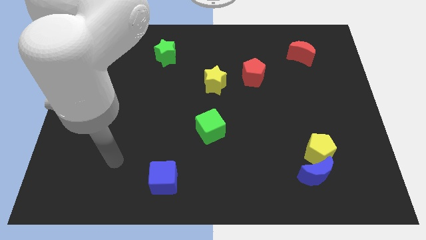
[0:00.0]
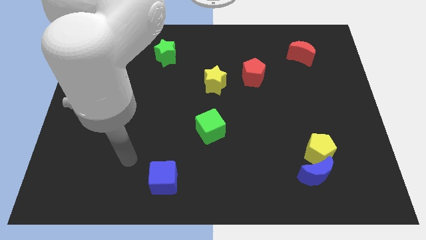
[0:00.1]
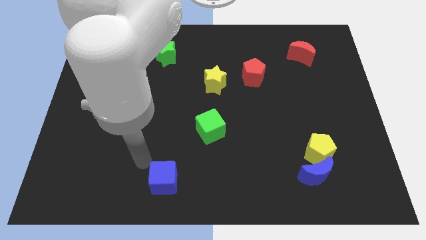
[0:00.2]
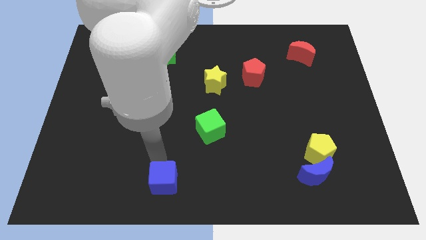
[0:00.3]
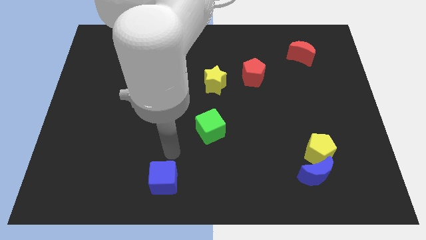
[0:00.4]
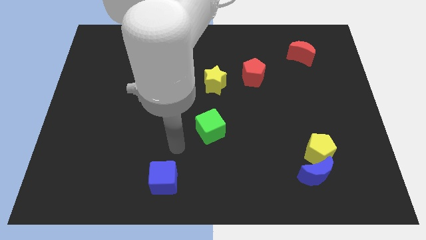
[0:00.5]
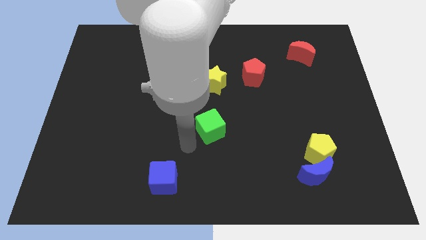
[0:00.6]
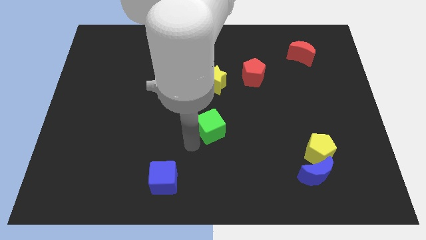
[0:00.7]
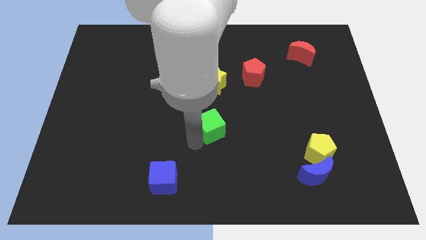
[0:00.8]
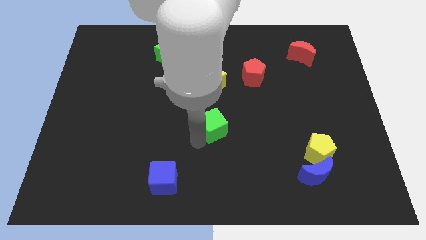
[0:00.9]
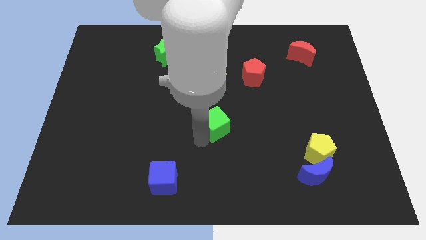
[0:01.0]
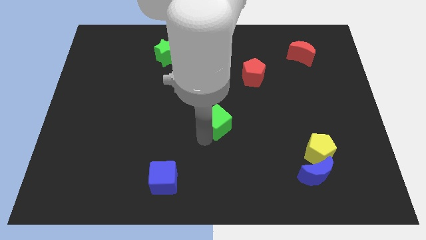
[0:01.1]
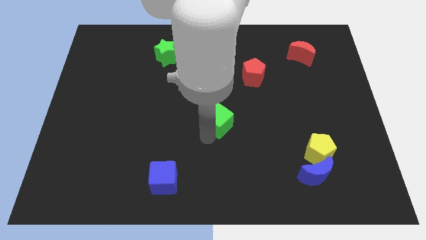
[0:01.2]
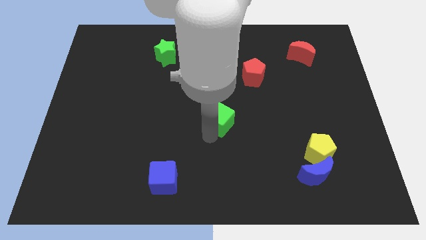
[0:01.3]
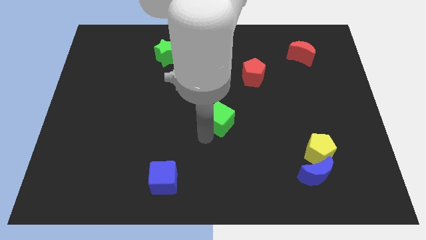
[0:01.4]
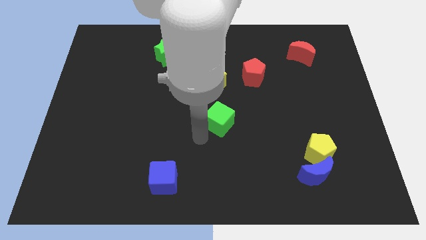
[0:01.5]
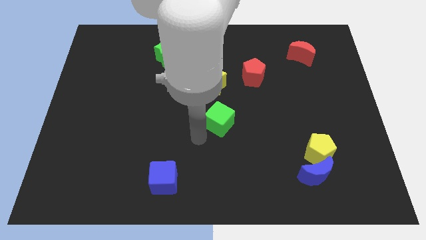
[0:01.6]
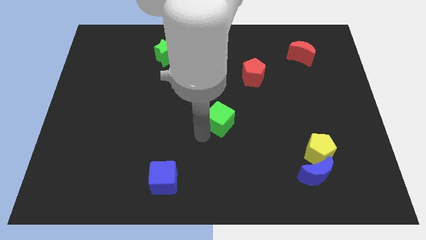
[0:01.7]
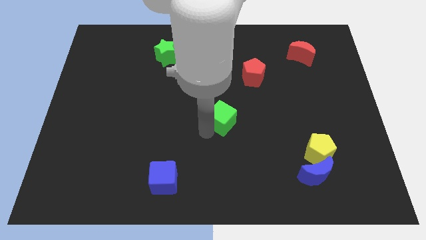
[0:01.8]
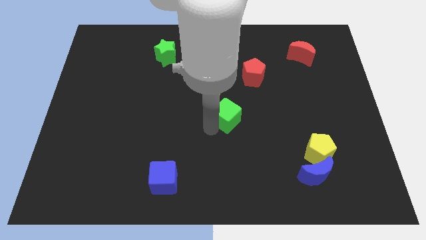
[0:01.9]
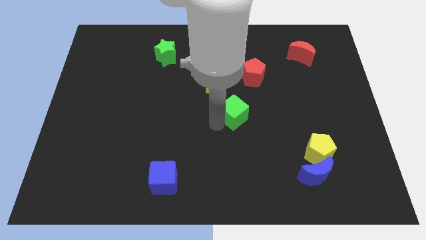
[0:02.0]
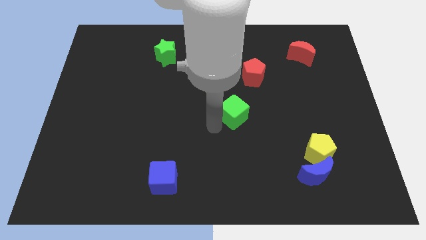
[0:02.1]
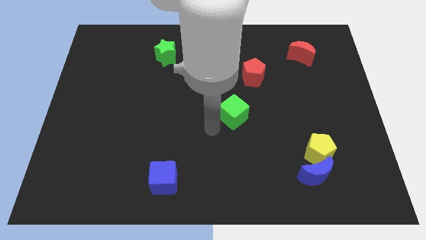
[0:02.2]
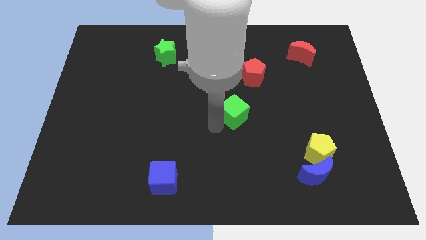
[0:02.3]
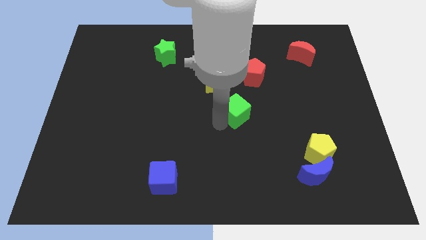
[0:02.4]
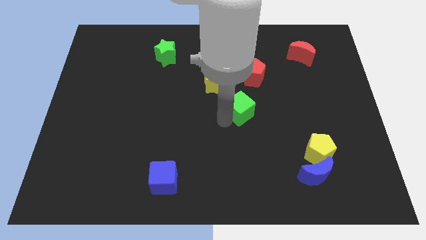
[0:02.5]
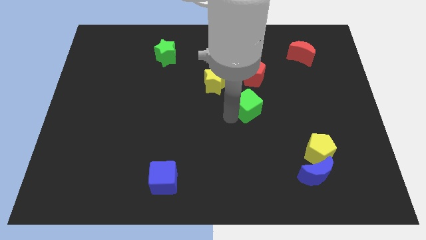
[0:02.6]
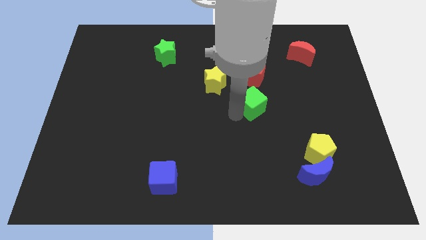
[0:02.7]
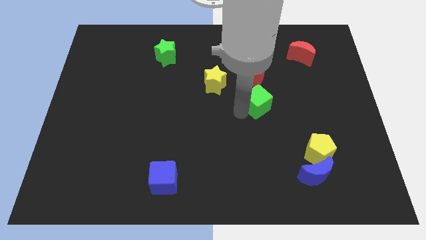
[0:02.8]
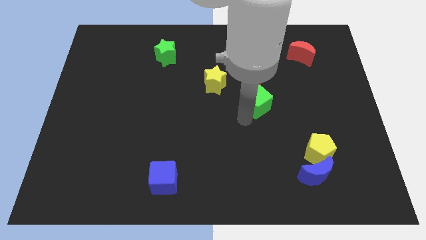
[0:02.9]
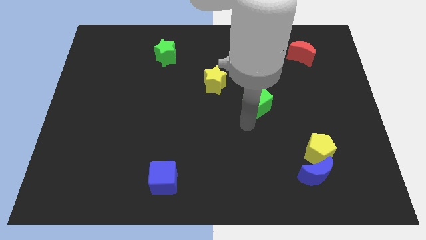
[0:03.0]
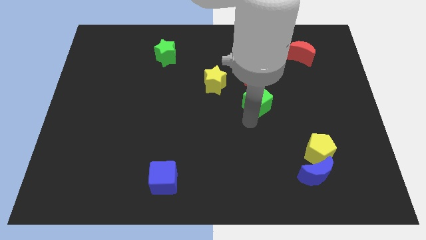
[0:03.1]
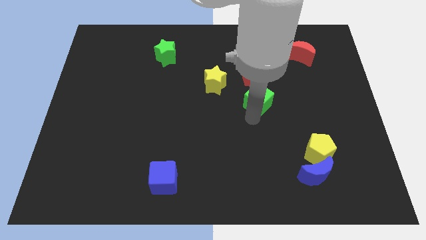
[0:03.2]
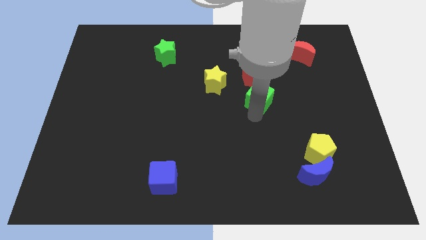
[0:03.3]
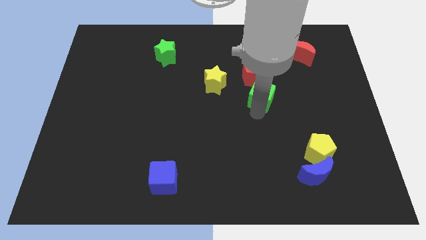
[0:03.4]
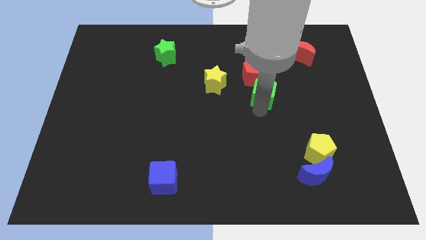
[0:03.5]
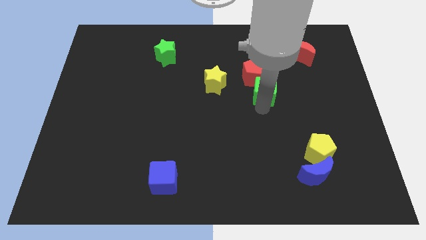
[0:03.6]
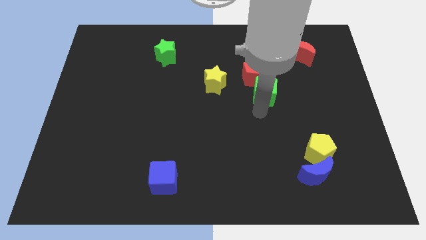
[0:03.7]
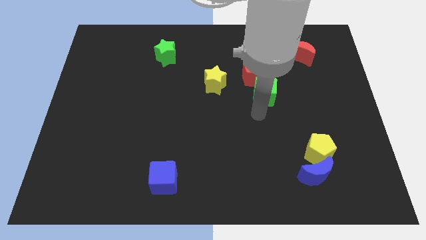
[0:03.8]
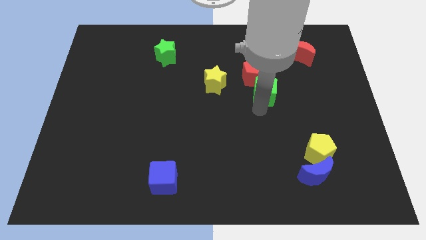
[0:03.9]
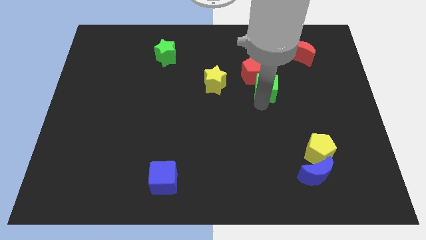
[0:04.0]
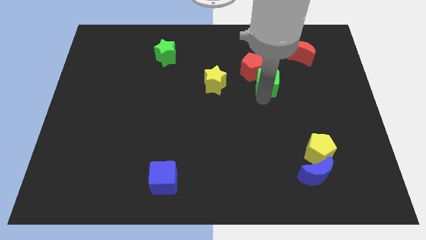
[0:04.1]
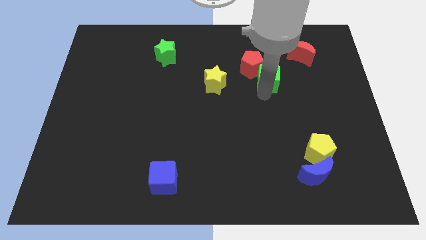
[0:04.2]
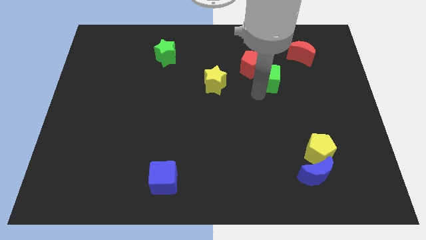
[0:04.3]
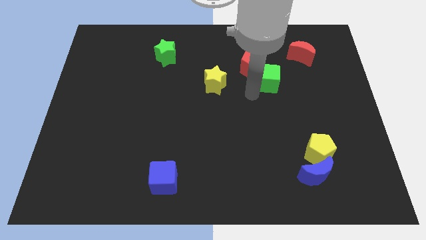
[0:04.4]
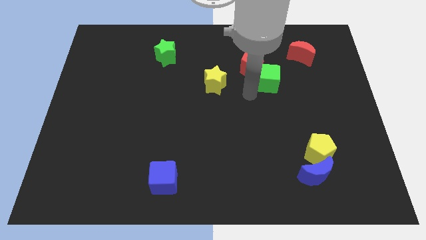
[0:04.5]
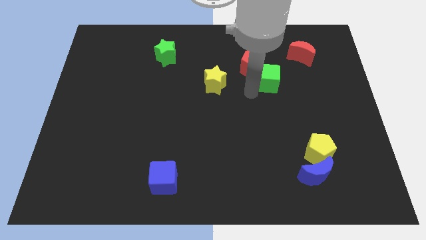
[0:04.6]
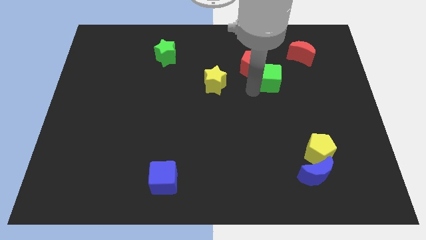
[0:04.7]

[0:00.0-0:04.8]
put the green cube diagonally down and to the left of the red moon

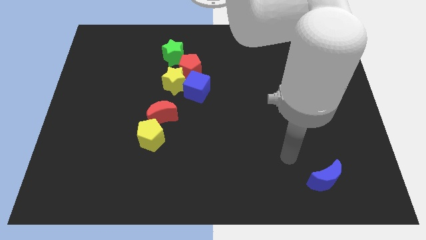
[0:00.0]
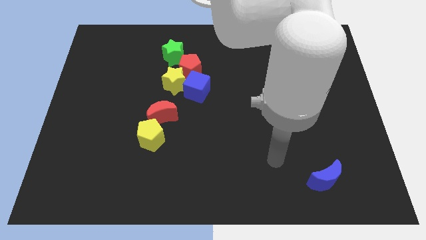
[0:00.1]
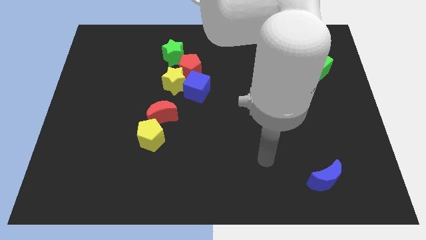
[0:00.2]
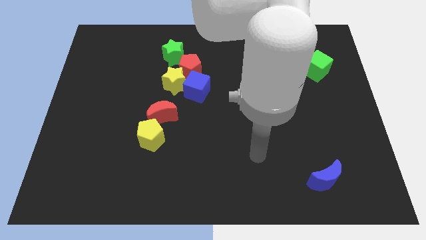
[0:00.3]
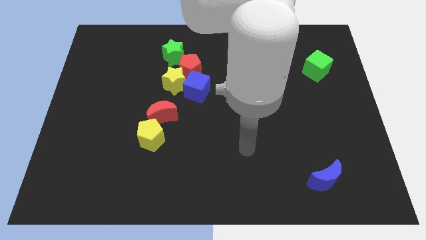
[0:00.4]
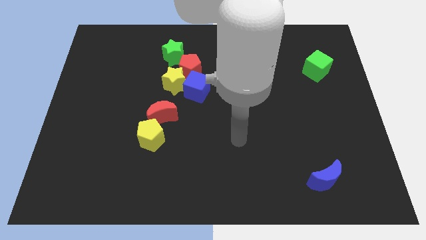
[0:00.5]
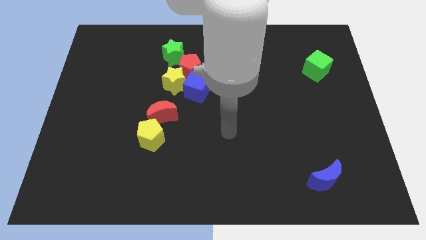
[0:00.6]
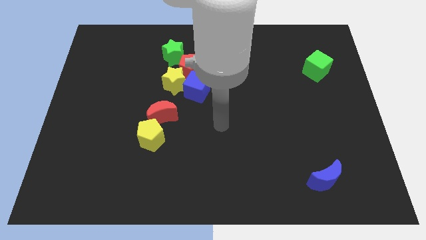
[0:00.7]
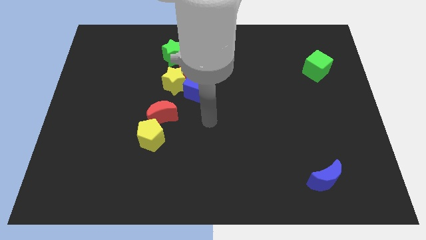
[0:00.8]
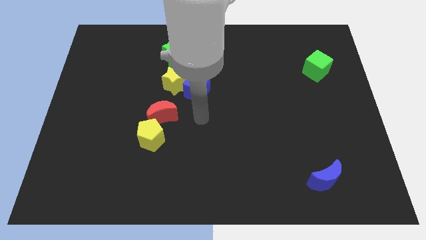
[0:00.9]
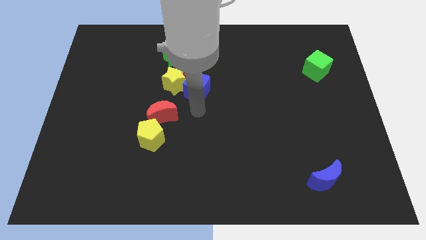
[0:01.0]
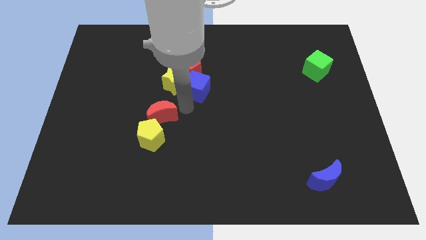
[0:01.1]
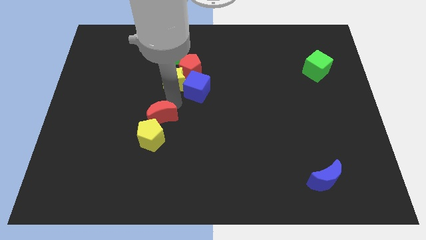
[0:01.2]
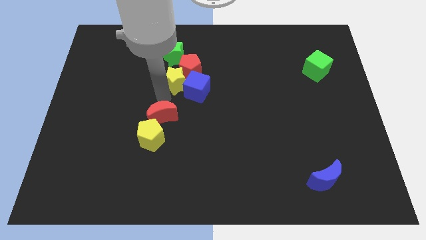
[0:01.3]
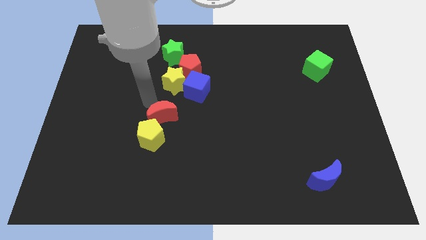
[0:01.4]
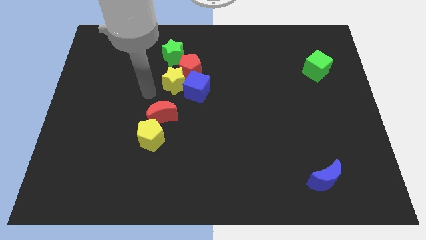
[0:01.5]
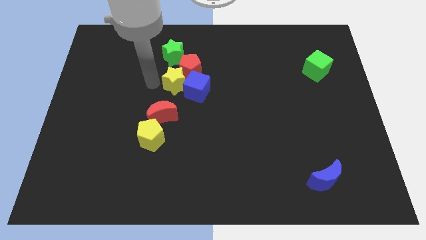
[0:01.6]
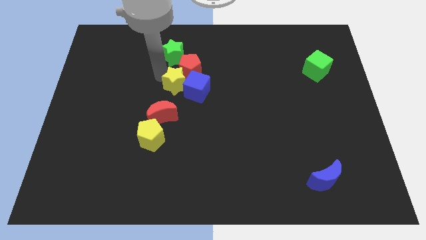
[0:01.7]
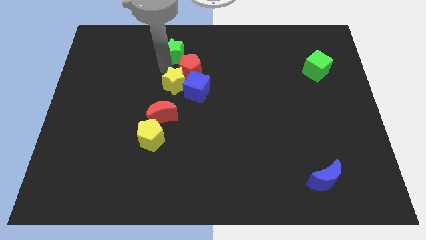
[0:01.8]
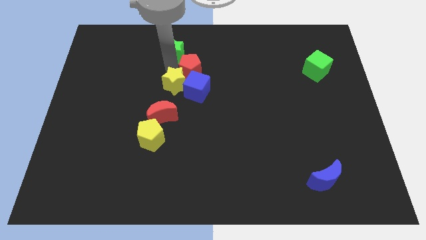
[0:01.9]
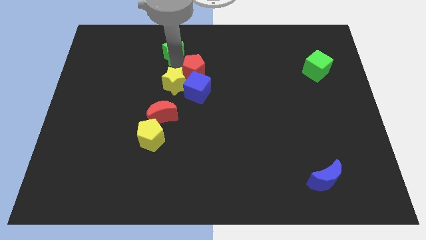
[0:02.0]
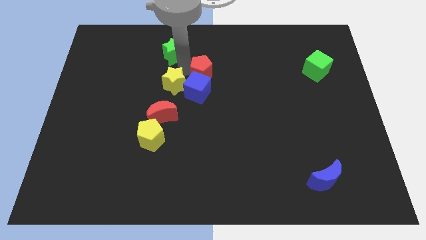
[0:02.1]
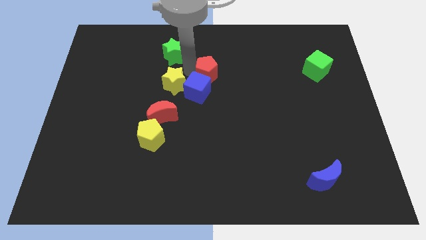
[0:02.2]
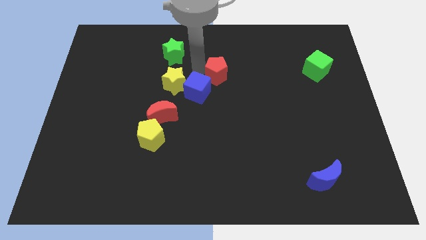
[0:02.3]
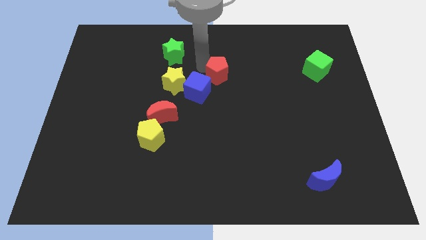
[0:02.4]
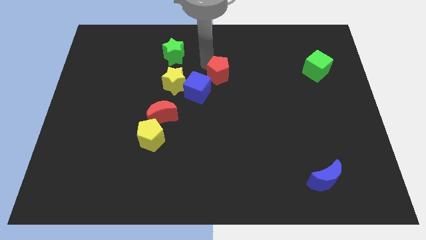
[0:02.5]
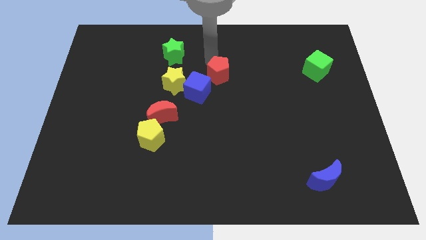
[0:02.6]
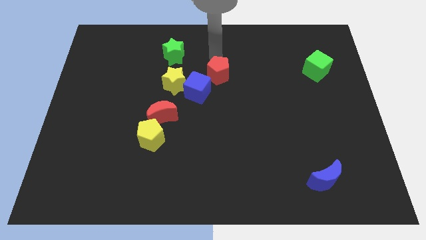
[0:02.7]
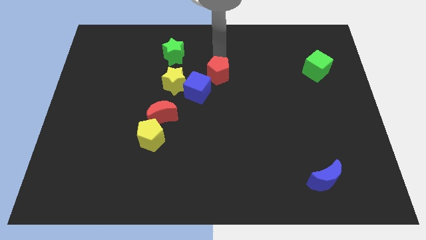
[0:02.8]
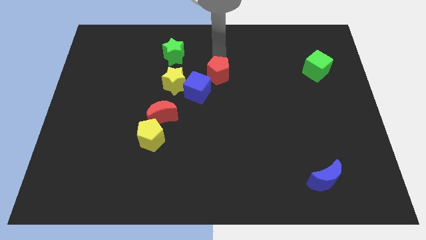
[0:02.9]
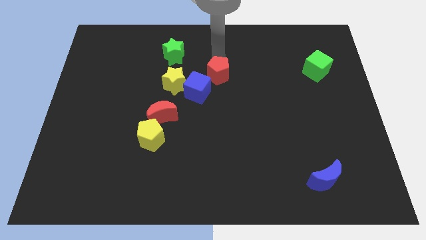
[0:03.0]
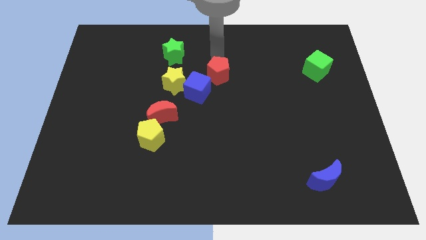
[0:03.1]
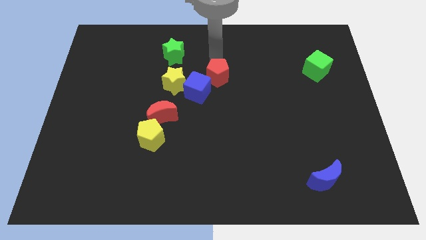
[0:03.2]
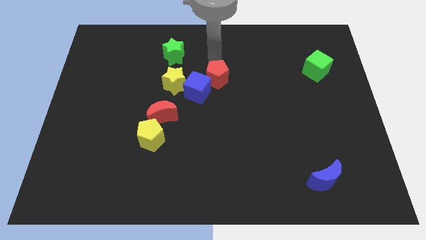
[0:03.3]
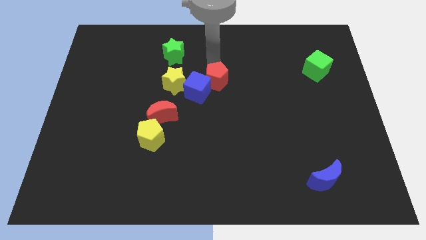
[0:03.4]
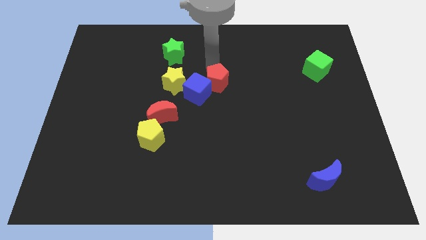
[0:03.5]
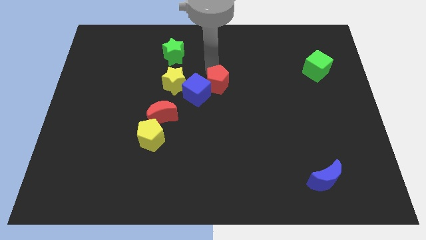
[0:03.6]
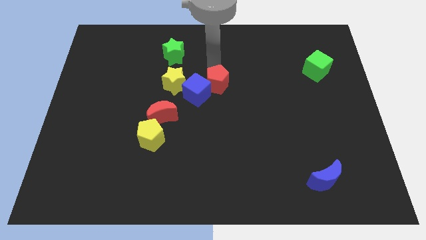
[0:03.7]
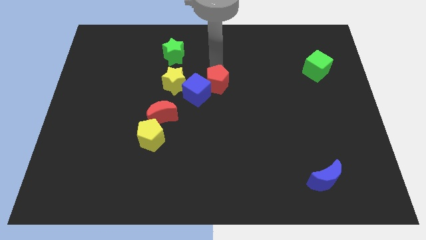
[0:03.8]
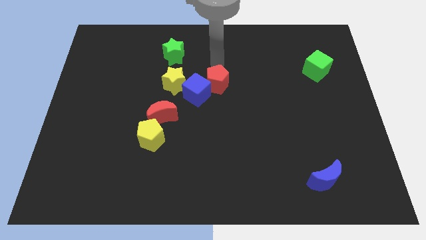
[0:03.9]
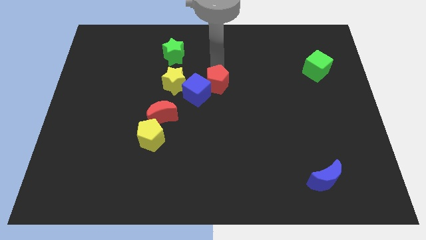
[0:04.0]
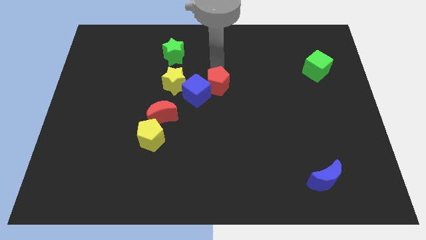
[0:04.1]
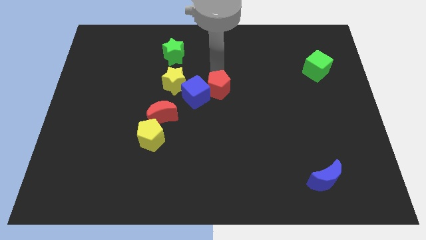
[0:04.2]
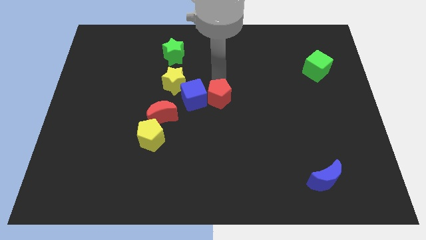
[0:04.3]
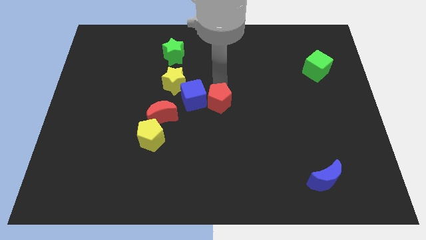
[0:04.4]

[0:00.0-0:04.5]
move the red pentagon right of the red moon
